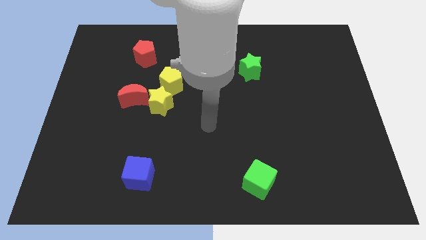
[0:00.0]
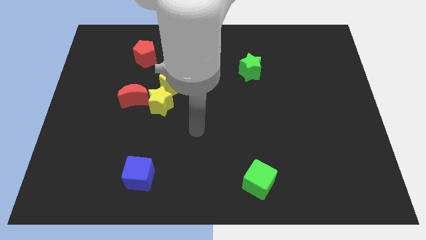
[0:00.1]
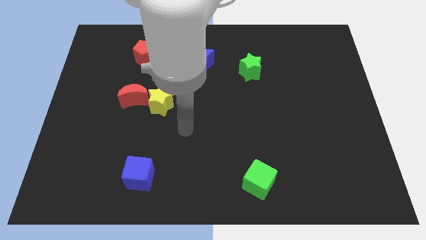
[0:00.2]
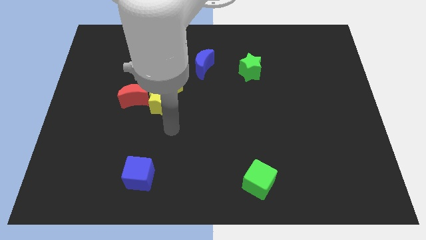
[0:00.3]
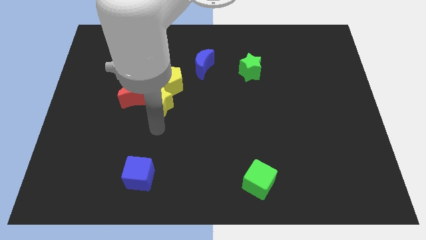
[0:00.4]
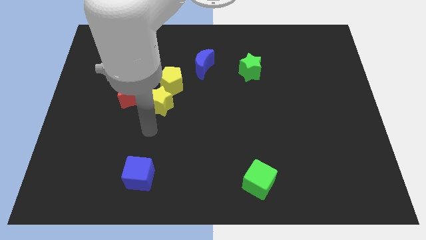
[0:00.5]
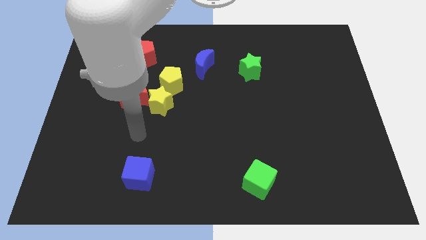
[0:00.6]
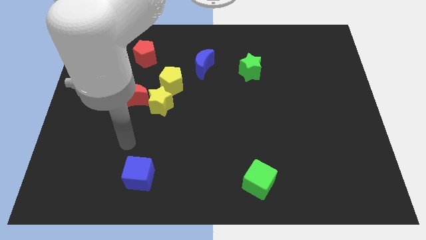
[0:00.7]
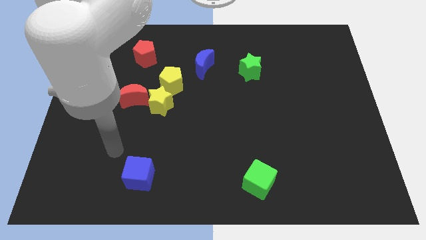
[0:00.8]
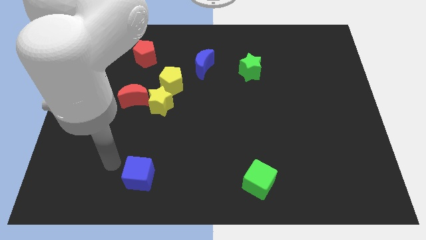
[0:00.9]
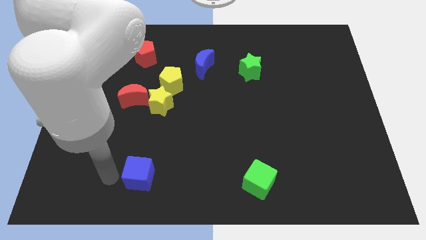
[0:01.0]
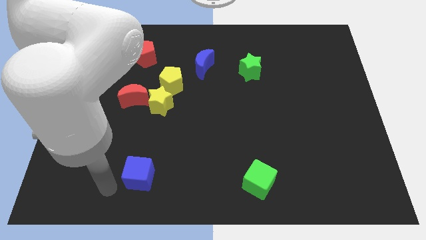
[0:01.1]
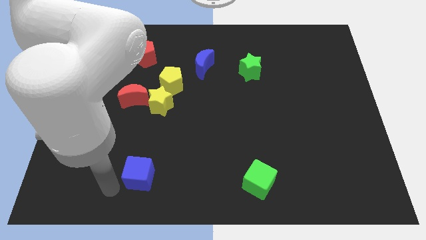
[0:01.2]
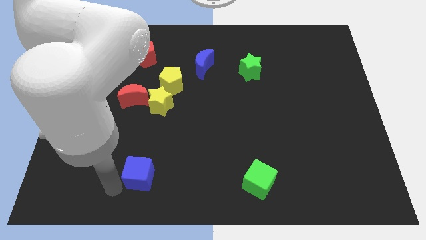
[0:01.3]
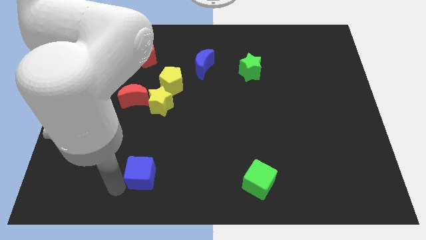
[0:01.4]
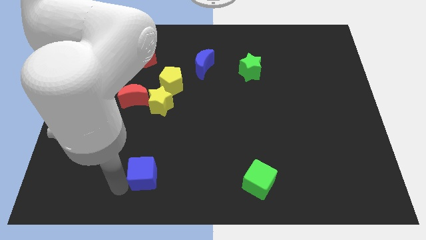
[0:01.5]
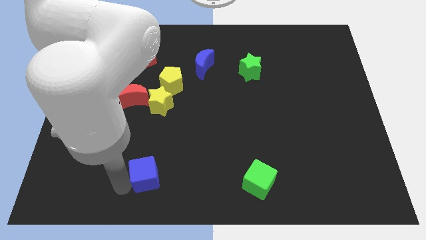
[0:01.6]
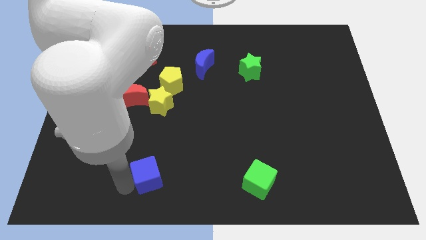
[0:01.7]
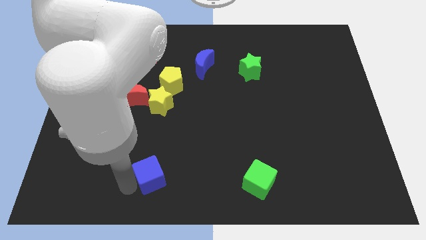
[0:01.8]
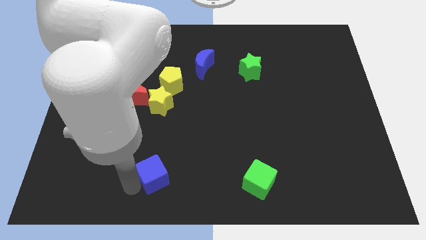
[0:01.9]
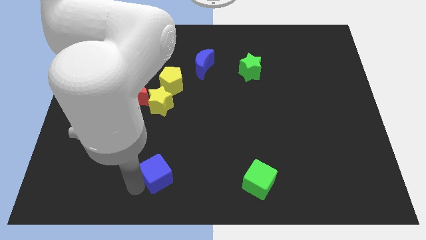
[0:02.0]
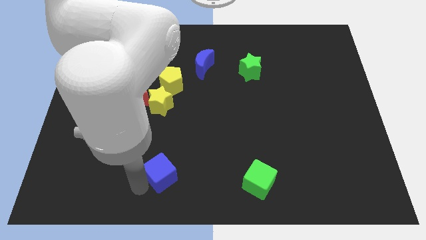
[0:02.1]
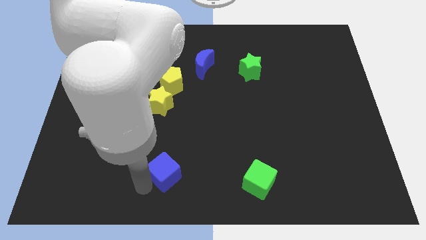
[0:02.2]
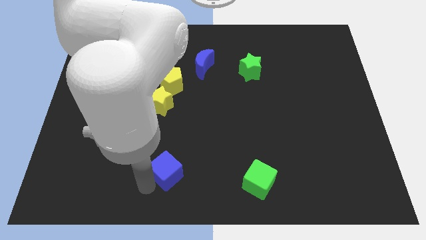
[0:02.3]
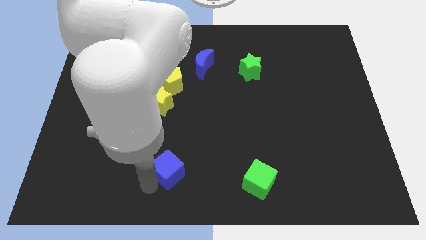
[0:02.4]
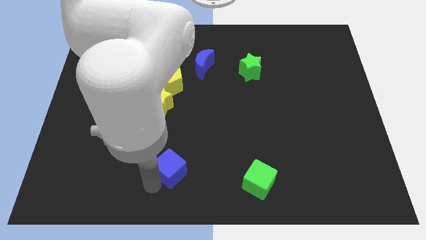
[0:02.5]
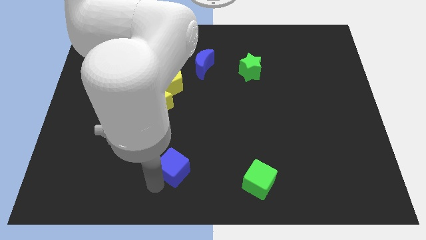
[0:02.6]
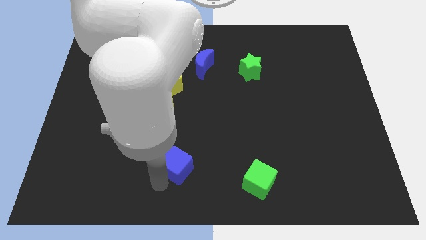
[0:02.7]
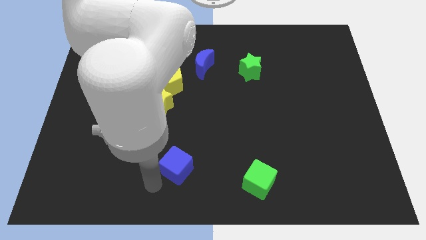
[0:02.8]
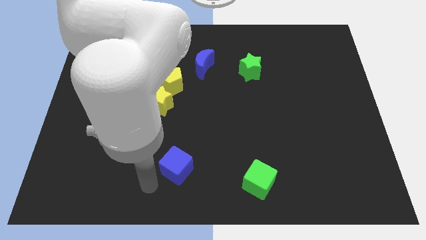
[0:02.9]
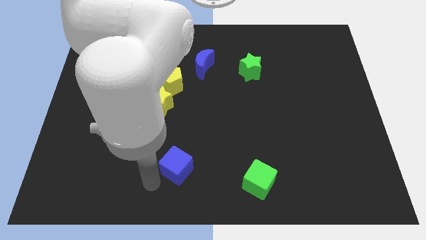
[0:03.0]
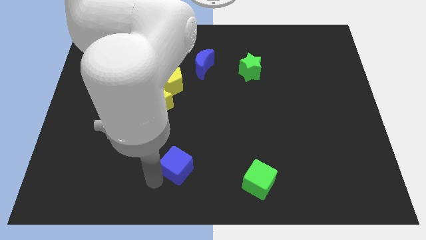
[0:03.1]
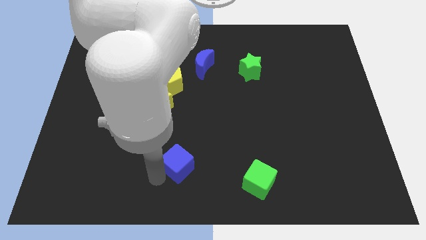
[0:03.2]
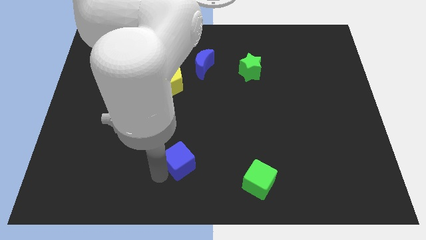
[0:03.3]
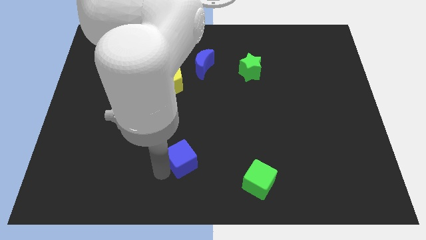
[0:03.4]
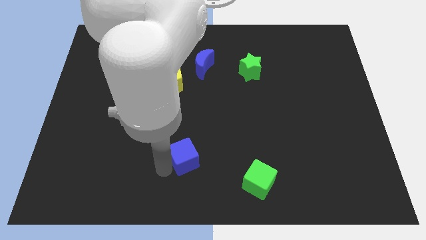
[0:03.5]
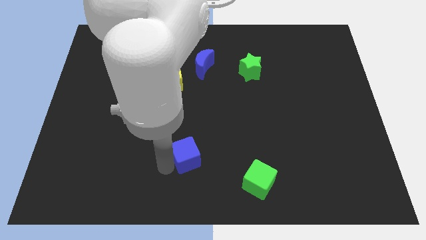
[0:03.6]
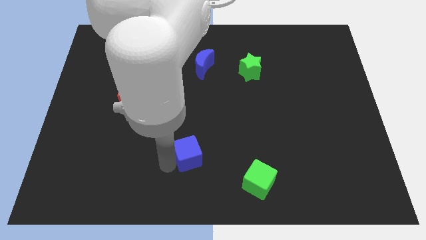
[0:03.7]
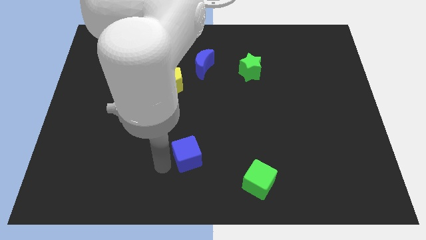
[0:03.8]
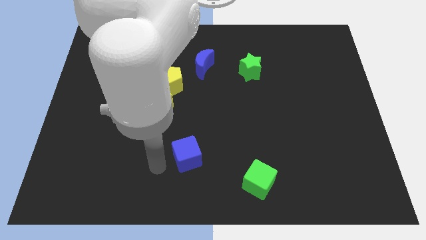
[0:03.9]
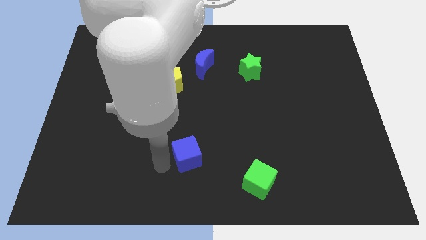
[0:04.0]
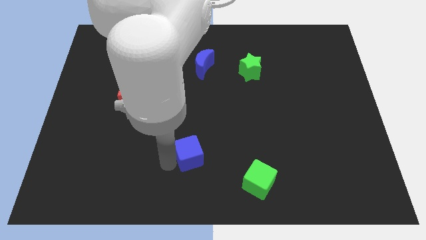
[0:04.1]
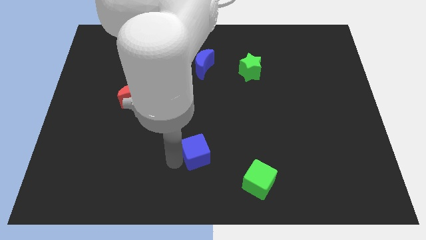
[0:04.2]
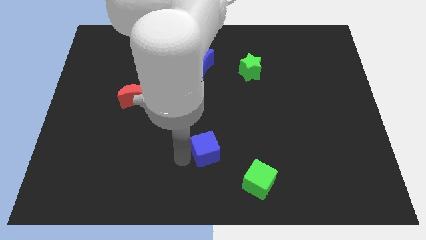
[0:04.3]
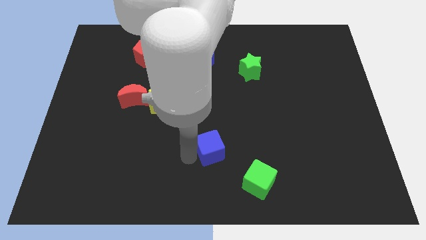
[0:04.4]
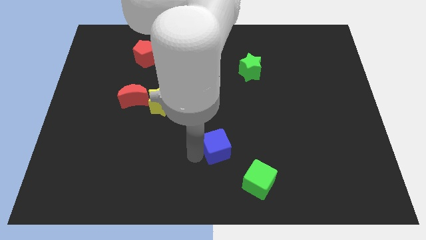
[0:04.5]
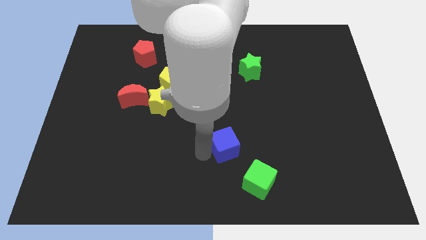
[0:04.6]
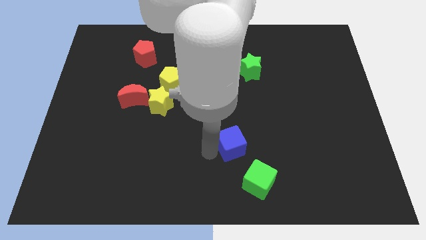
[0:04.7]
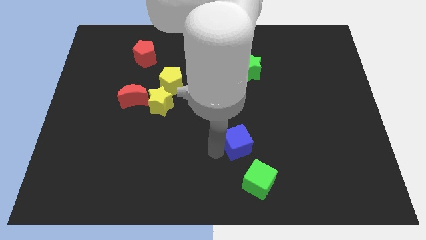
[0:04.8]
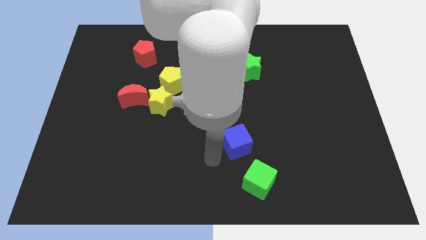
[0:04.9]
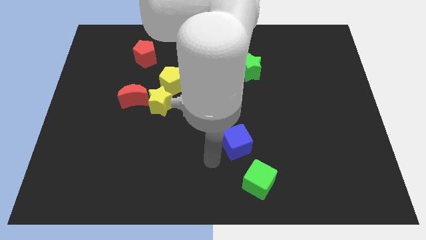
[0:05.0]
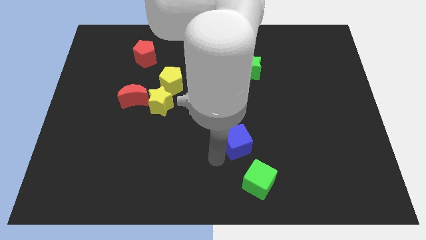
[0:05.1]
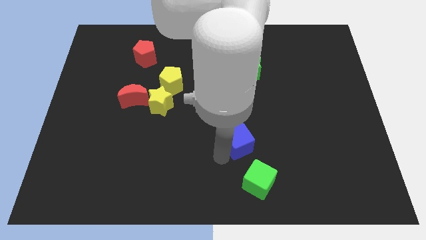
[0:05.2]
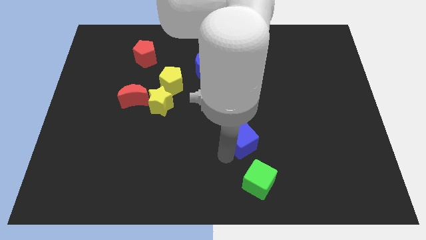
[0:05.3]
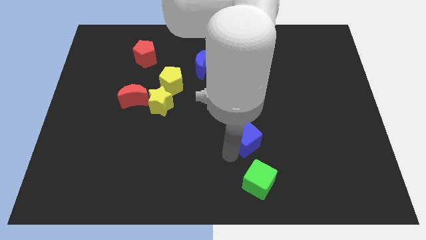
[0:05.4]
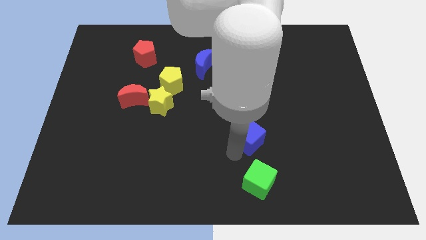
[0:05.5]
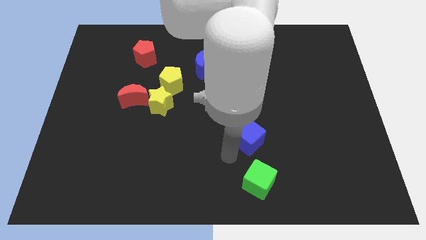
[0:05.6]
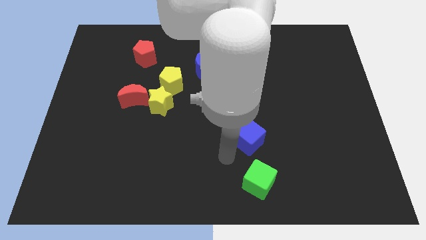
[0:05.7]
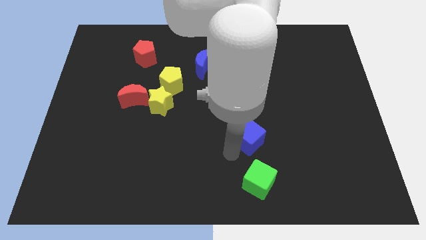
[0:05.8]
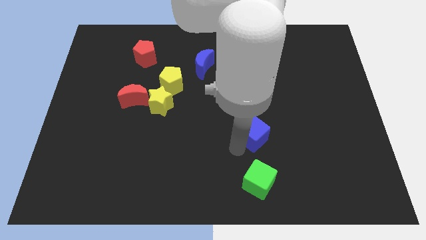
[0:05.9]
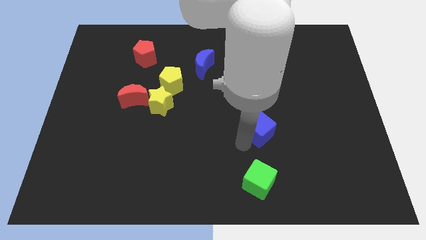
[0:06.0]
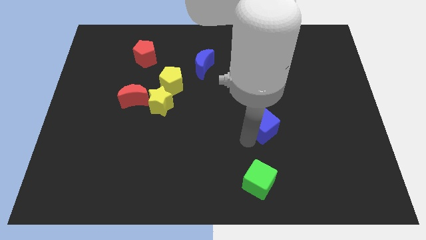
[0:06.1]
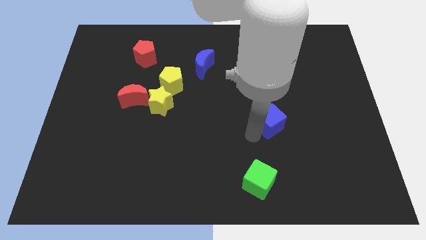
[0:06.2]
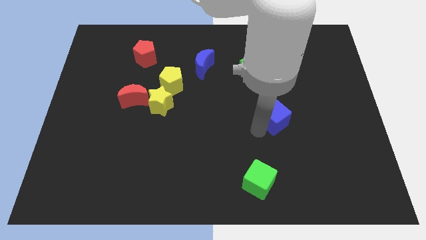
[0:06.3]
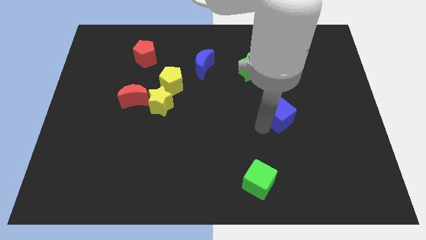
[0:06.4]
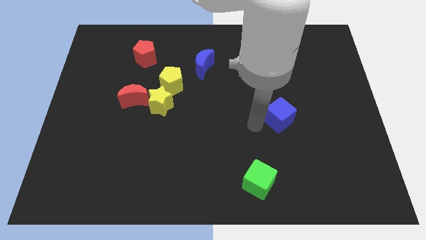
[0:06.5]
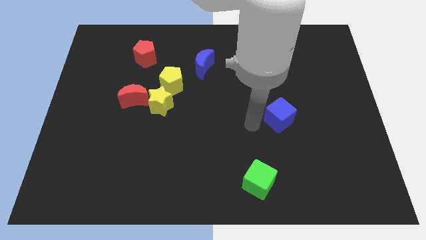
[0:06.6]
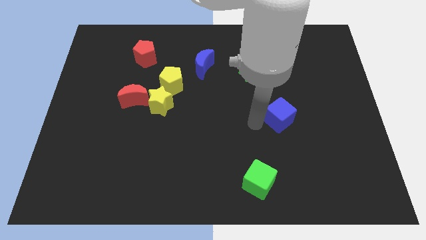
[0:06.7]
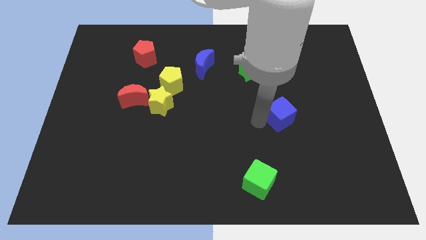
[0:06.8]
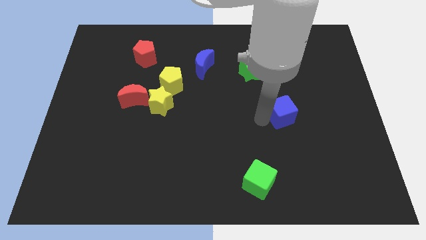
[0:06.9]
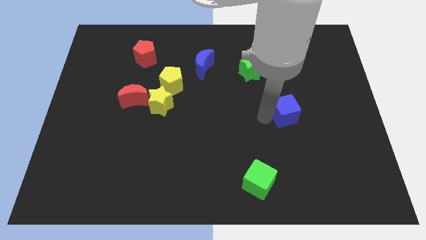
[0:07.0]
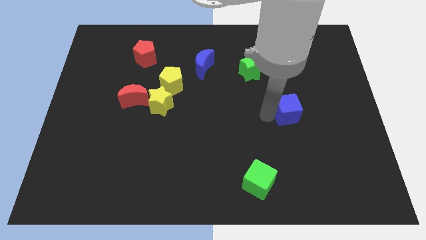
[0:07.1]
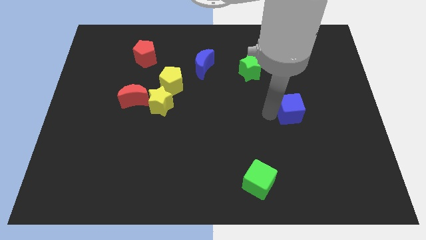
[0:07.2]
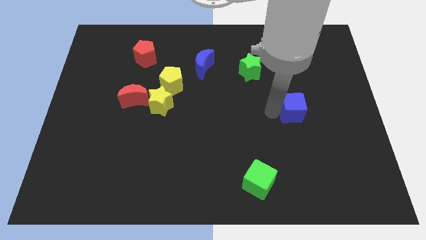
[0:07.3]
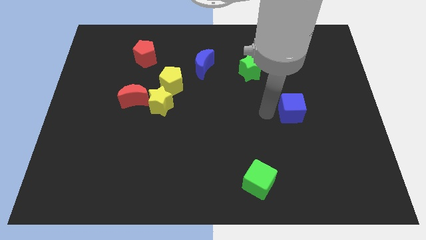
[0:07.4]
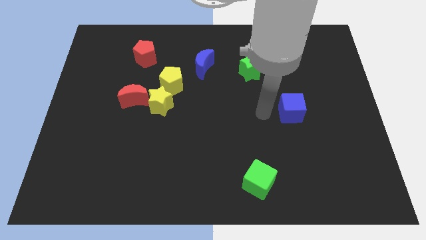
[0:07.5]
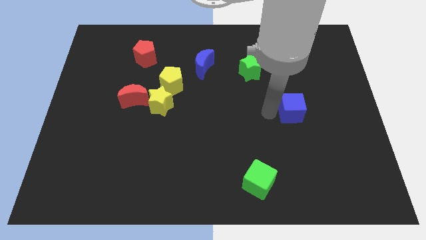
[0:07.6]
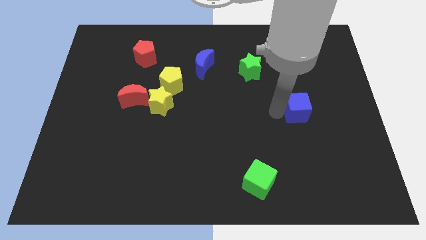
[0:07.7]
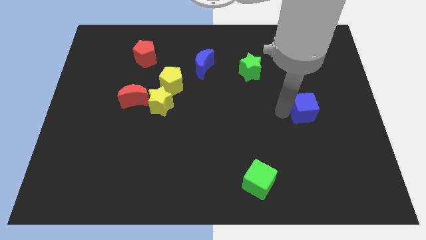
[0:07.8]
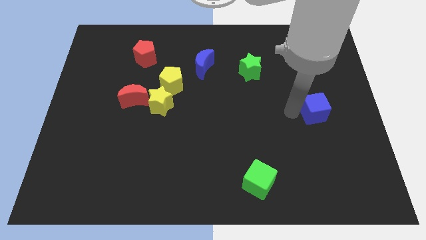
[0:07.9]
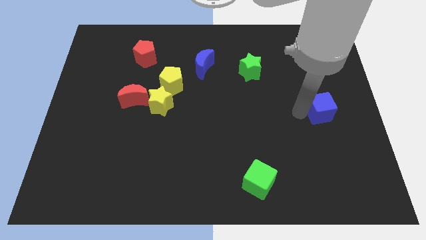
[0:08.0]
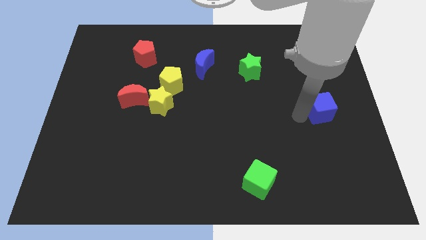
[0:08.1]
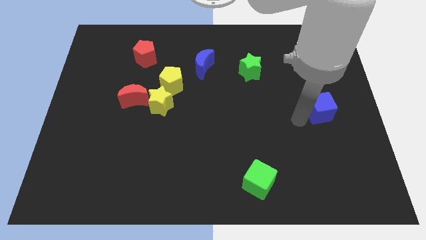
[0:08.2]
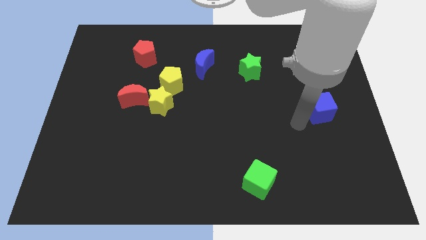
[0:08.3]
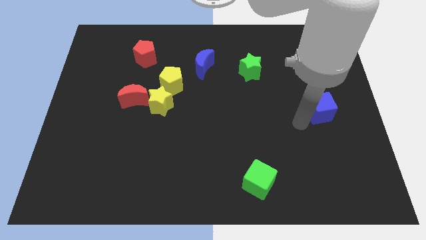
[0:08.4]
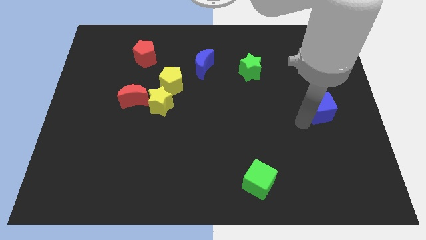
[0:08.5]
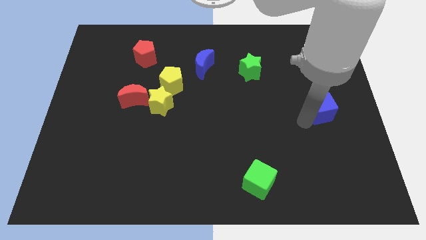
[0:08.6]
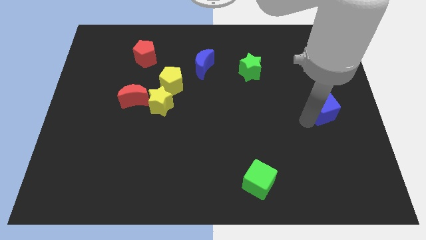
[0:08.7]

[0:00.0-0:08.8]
put the blue cube to the right side
